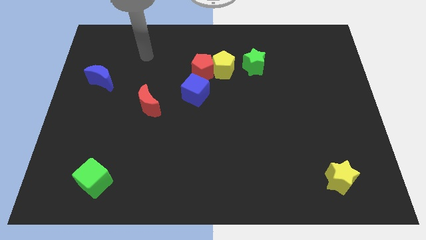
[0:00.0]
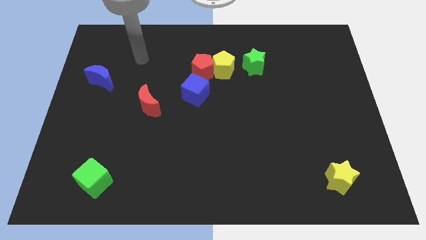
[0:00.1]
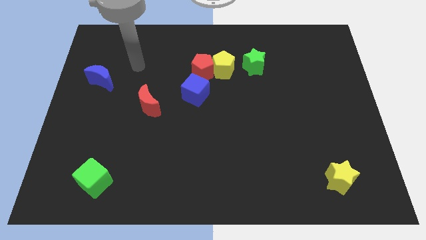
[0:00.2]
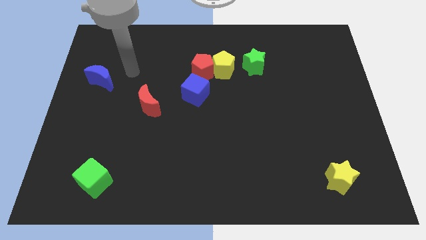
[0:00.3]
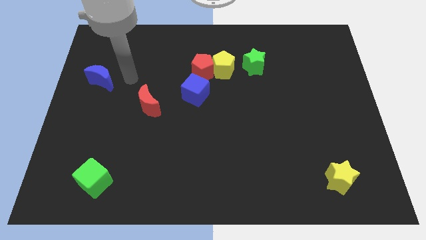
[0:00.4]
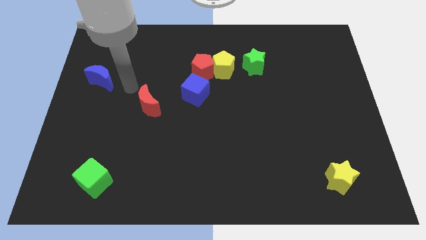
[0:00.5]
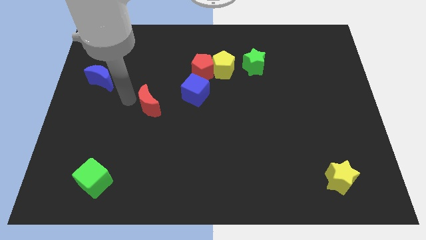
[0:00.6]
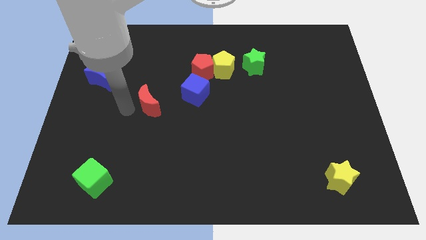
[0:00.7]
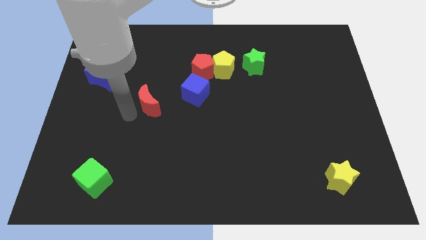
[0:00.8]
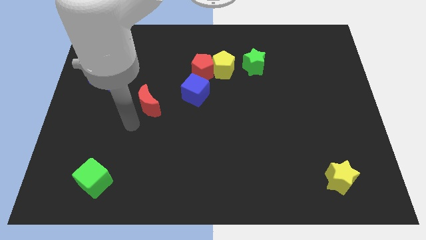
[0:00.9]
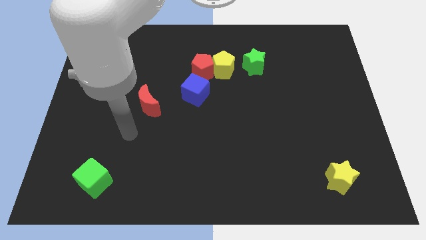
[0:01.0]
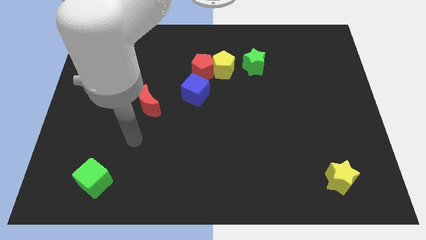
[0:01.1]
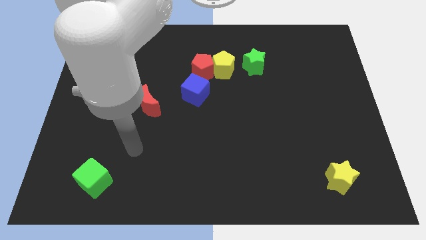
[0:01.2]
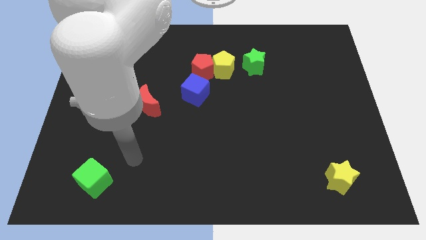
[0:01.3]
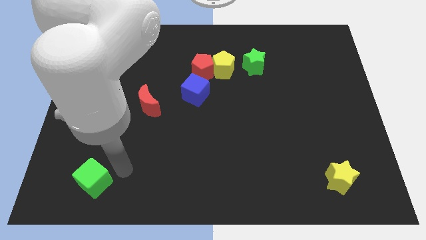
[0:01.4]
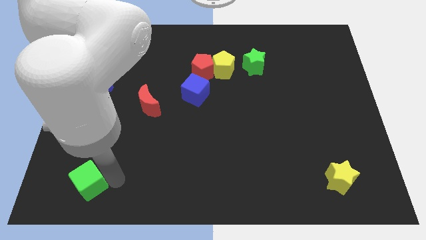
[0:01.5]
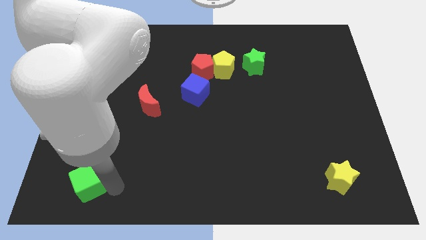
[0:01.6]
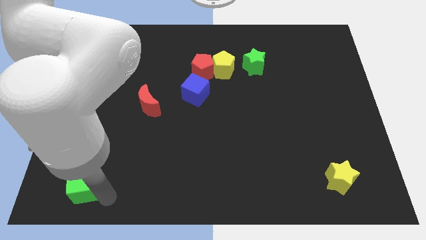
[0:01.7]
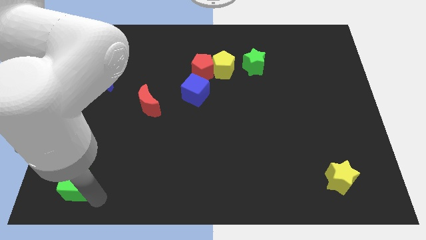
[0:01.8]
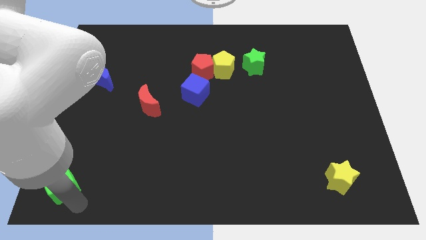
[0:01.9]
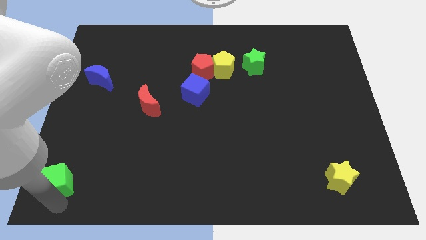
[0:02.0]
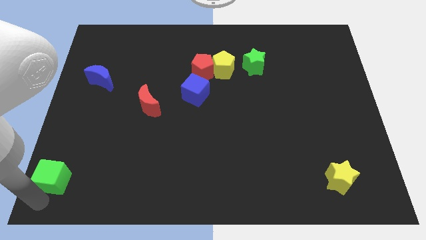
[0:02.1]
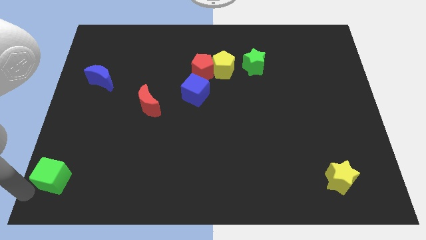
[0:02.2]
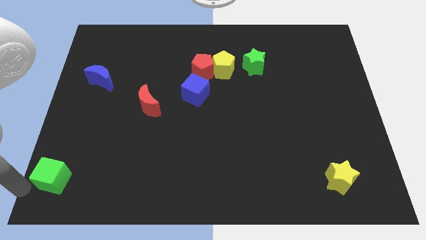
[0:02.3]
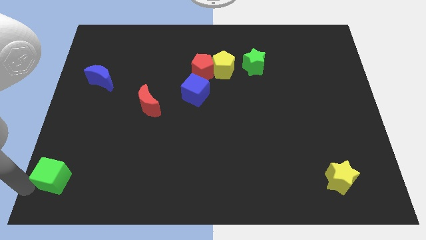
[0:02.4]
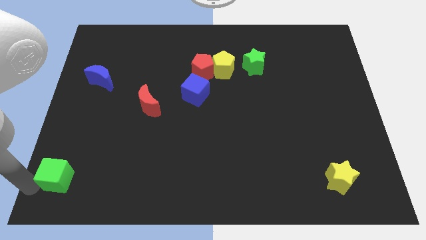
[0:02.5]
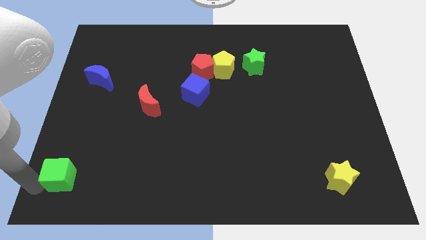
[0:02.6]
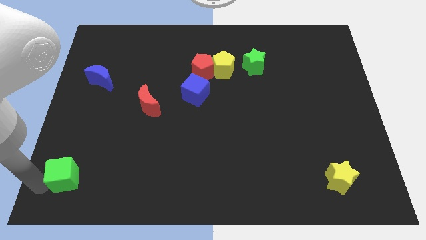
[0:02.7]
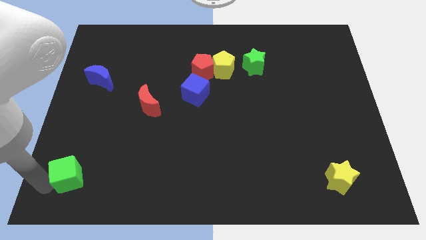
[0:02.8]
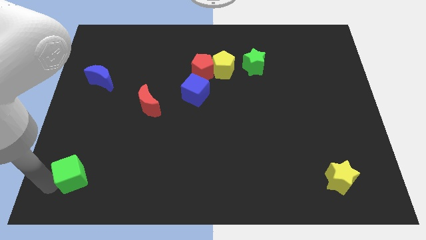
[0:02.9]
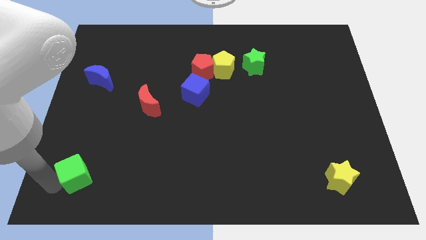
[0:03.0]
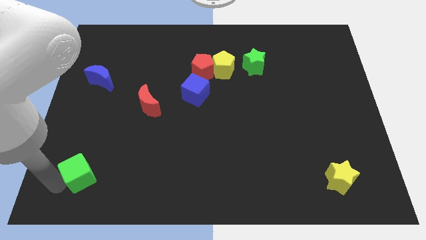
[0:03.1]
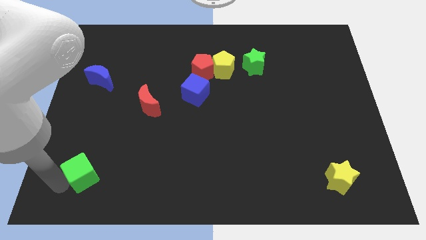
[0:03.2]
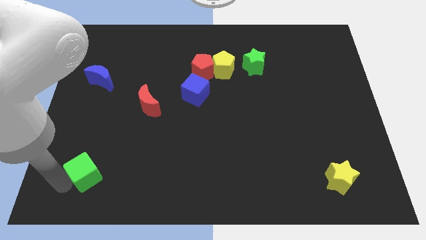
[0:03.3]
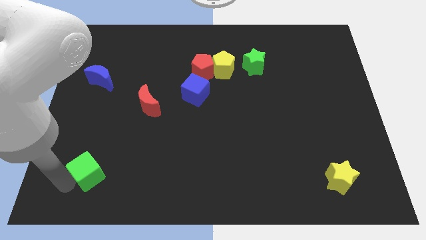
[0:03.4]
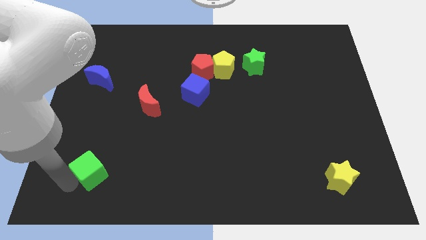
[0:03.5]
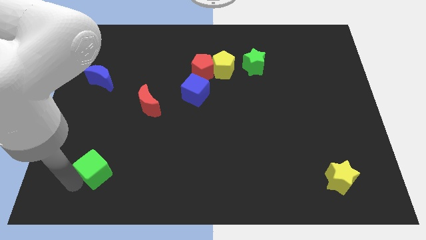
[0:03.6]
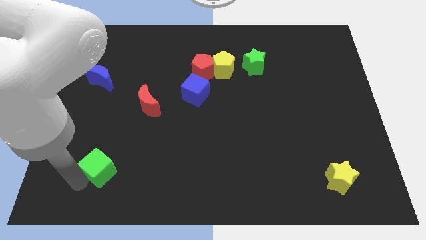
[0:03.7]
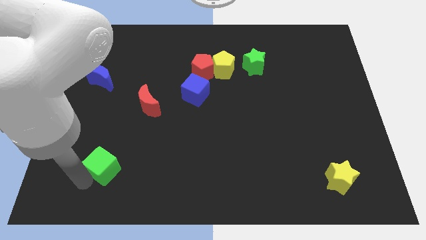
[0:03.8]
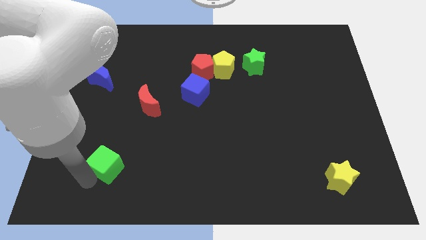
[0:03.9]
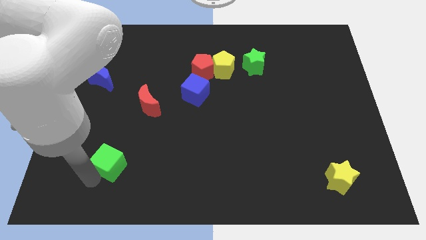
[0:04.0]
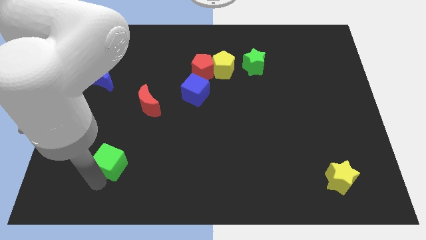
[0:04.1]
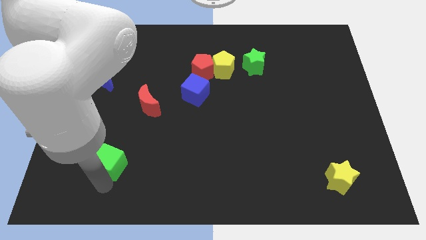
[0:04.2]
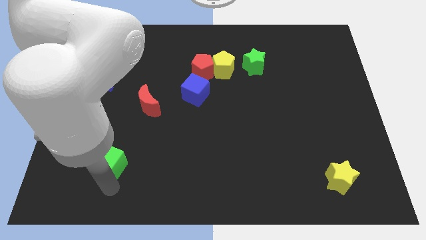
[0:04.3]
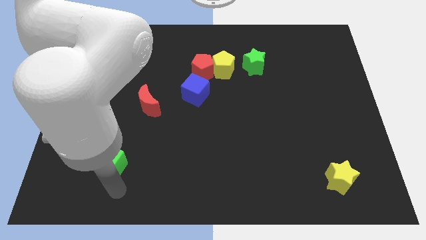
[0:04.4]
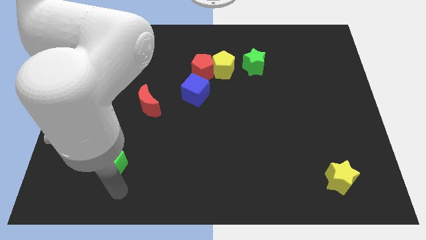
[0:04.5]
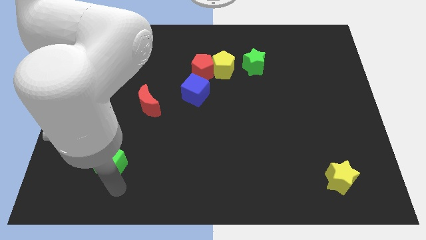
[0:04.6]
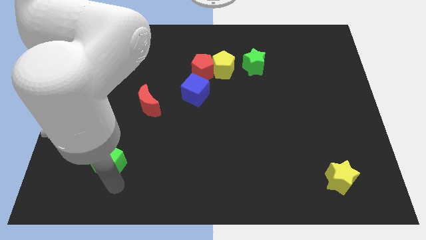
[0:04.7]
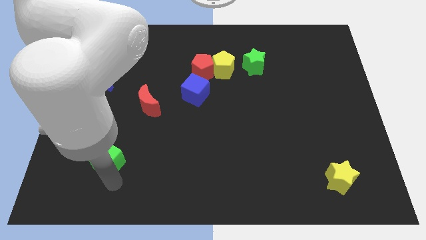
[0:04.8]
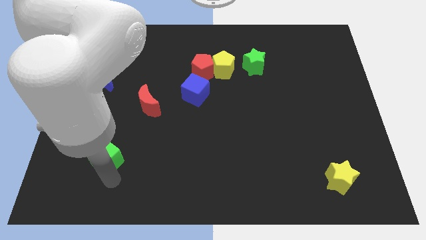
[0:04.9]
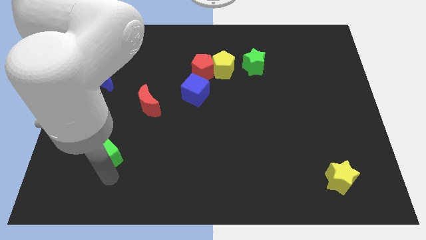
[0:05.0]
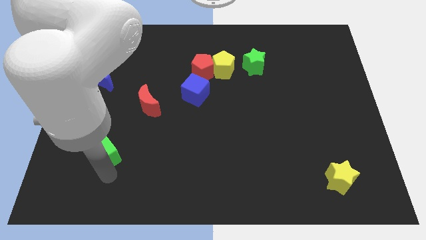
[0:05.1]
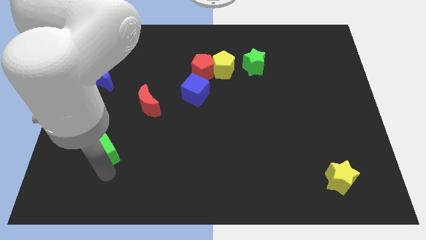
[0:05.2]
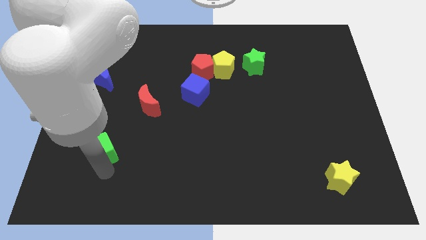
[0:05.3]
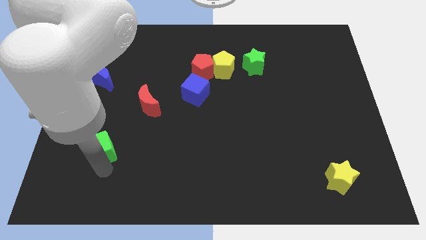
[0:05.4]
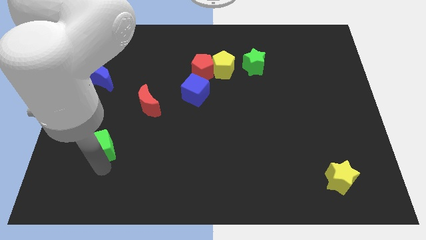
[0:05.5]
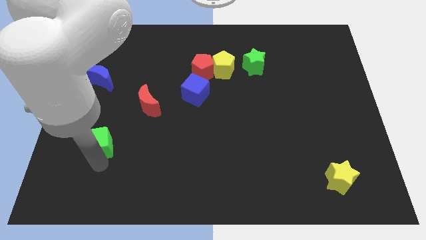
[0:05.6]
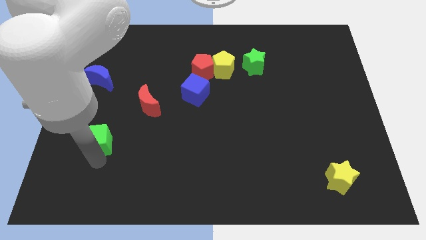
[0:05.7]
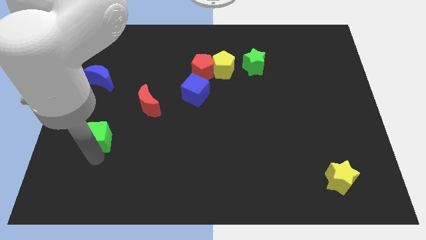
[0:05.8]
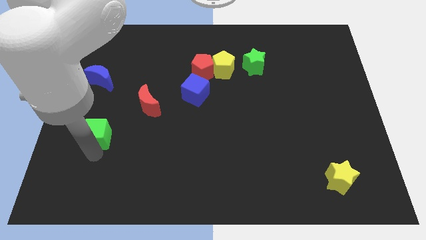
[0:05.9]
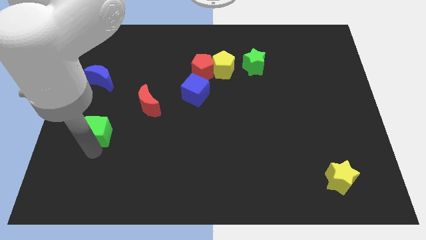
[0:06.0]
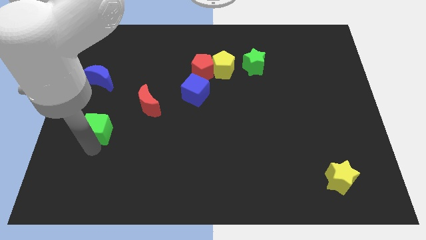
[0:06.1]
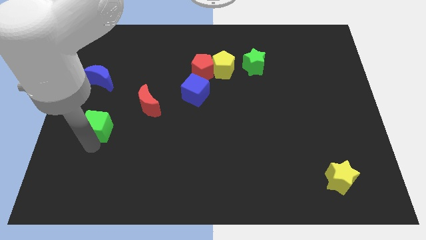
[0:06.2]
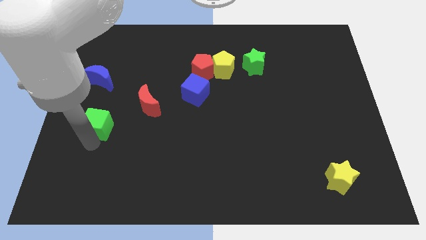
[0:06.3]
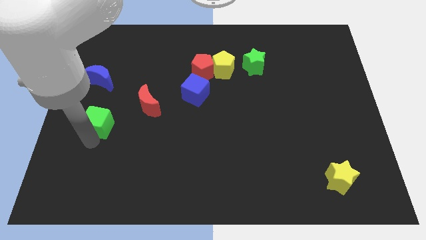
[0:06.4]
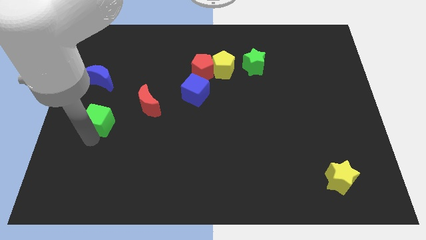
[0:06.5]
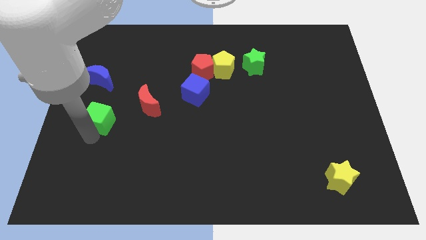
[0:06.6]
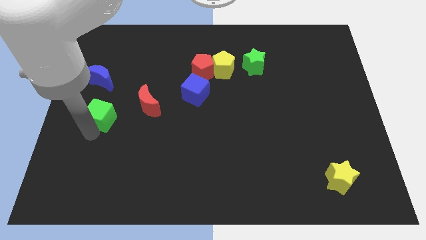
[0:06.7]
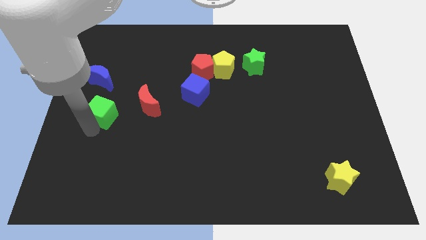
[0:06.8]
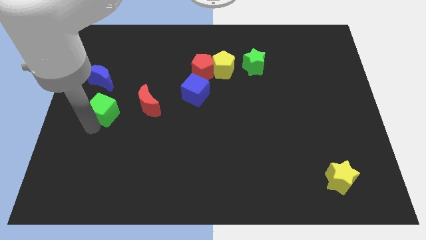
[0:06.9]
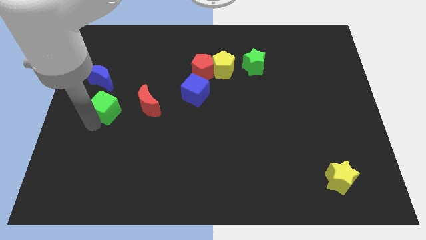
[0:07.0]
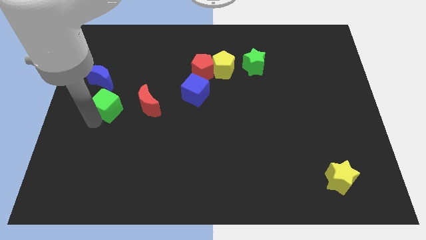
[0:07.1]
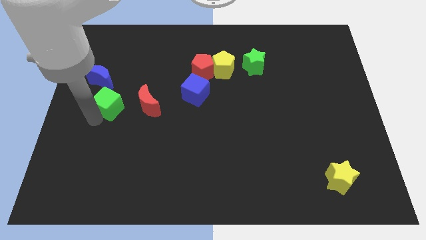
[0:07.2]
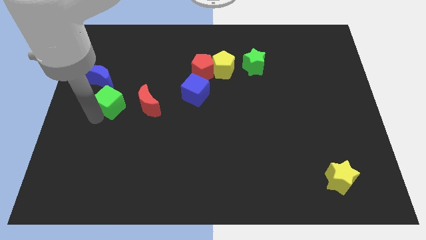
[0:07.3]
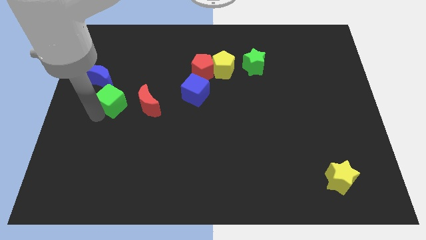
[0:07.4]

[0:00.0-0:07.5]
push the green cube up

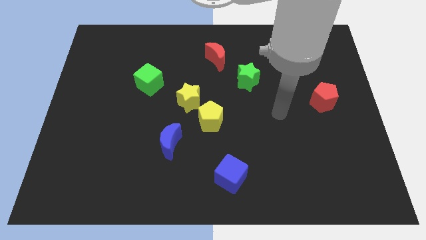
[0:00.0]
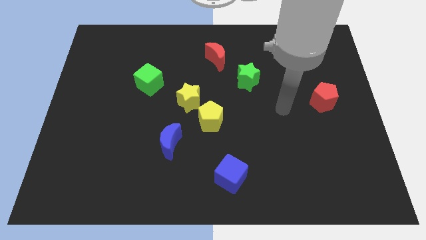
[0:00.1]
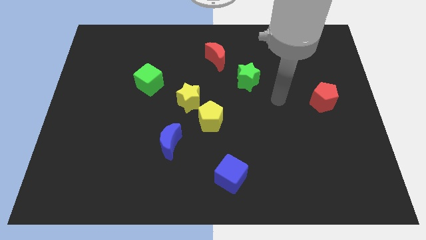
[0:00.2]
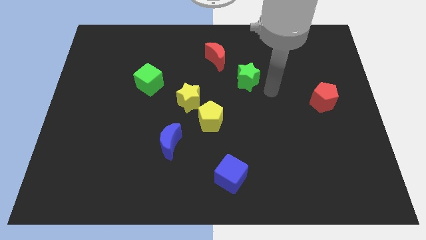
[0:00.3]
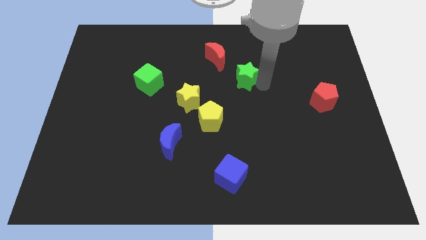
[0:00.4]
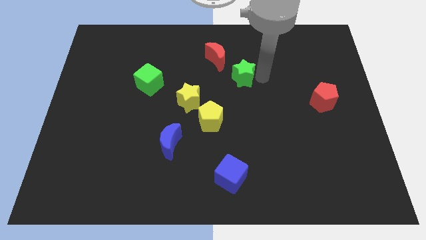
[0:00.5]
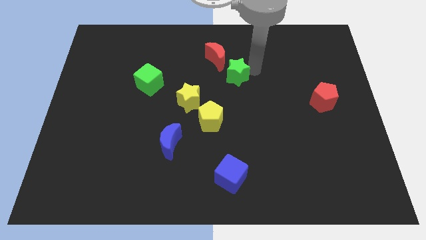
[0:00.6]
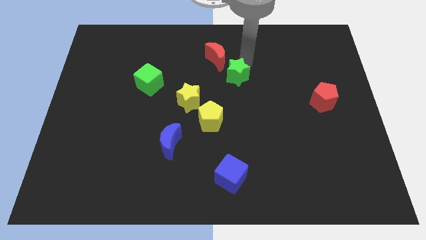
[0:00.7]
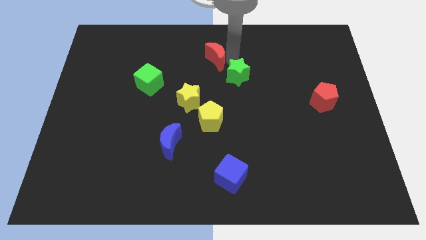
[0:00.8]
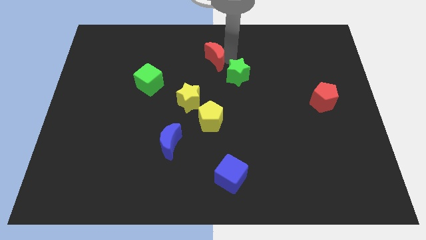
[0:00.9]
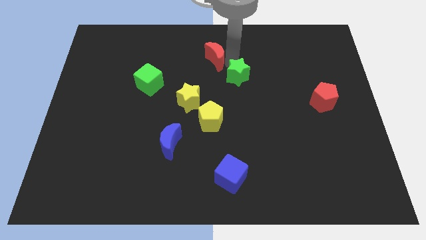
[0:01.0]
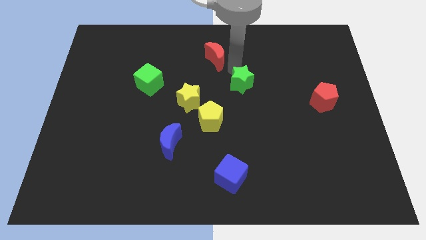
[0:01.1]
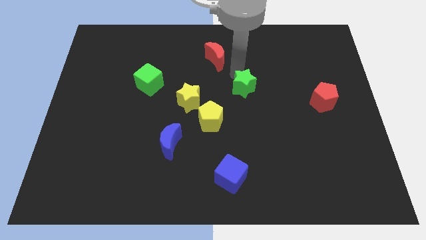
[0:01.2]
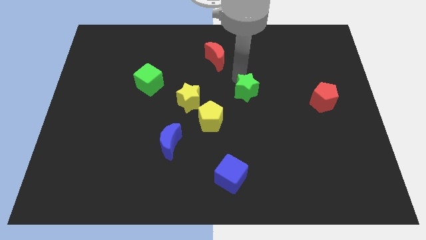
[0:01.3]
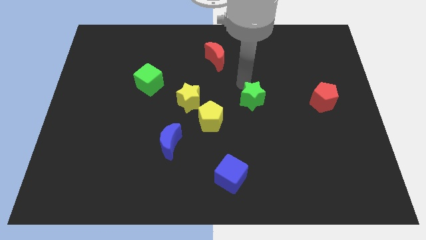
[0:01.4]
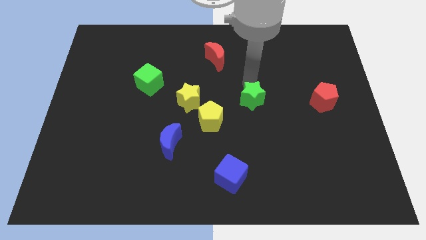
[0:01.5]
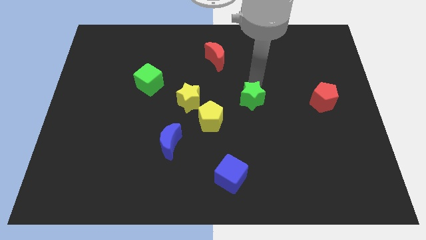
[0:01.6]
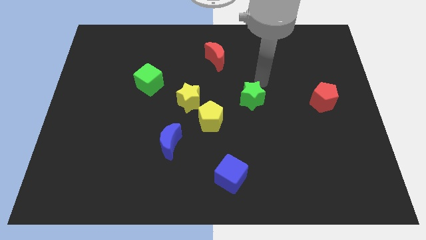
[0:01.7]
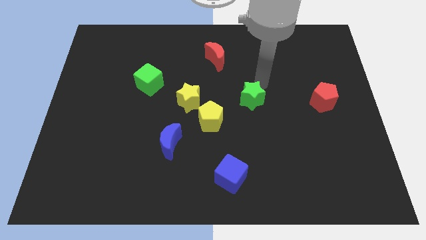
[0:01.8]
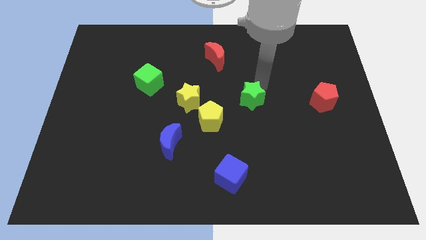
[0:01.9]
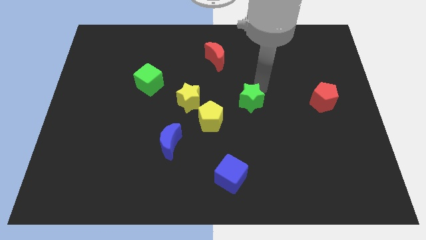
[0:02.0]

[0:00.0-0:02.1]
move the green star downwards a little
